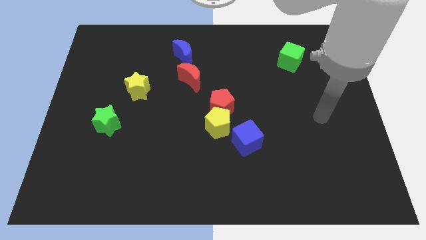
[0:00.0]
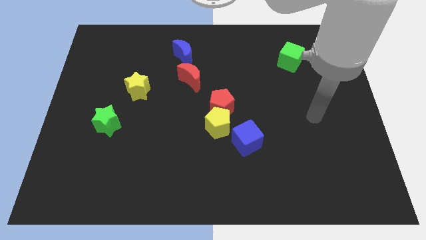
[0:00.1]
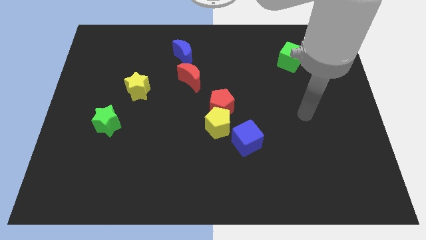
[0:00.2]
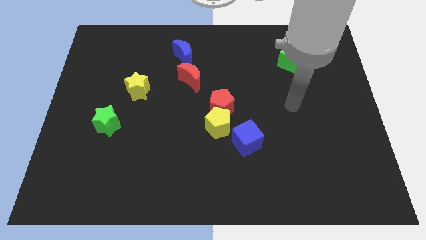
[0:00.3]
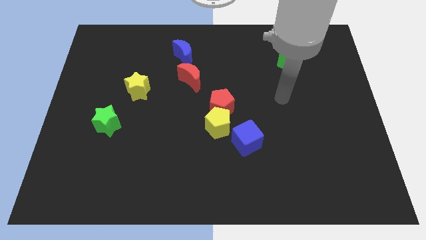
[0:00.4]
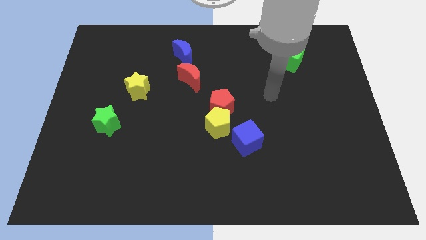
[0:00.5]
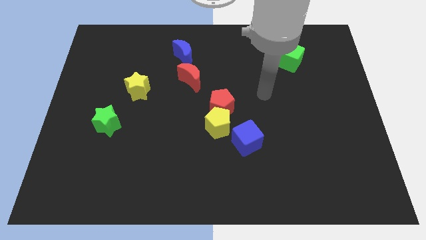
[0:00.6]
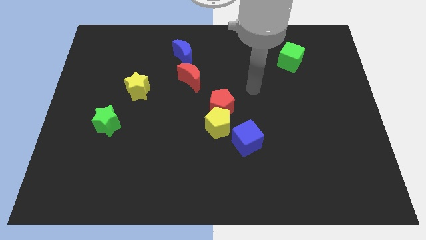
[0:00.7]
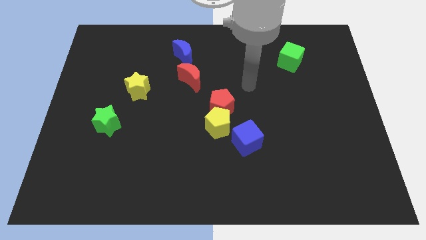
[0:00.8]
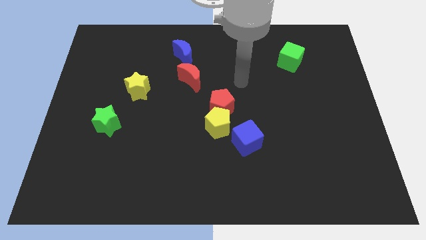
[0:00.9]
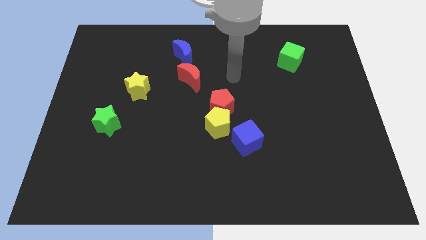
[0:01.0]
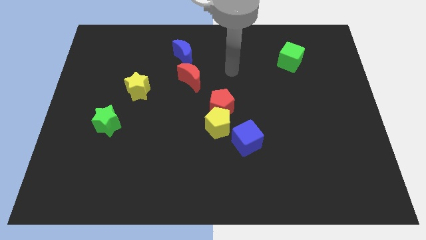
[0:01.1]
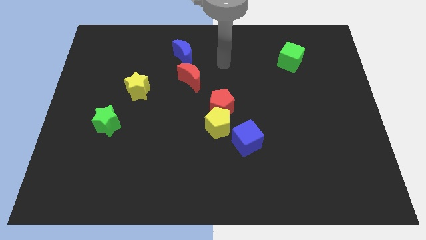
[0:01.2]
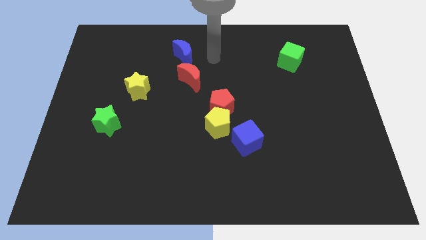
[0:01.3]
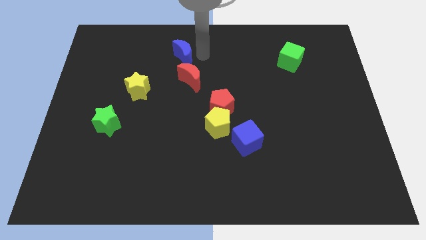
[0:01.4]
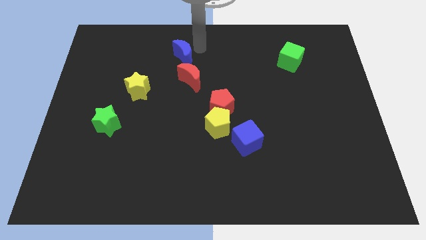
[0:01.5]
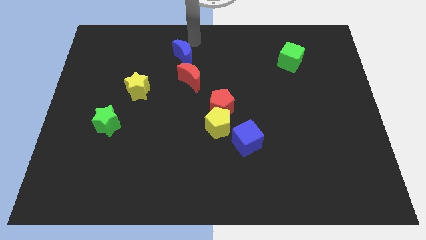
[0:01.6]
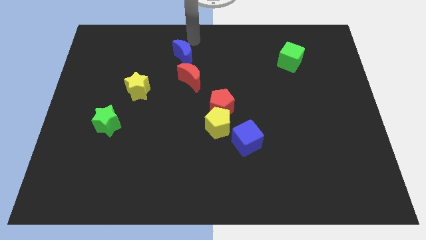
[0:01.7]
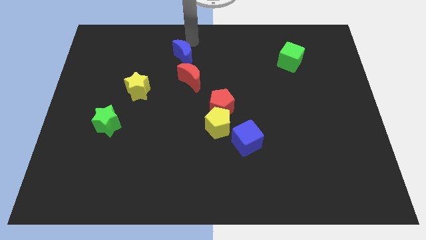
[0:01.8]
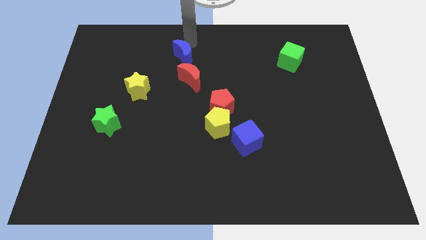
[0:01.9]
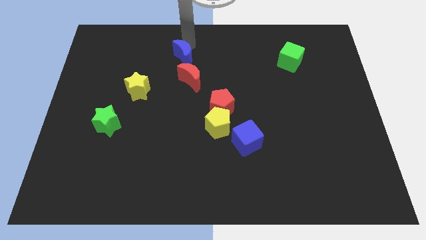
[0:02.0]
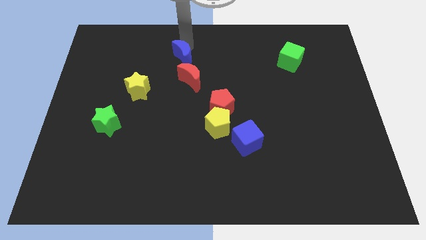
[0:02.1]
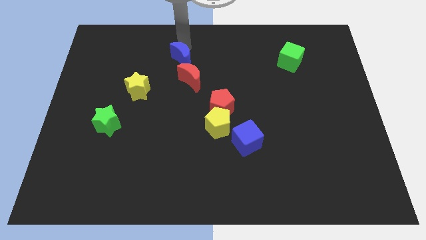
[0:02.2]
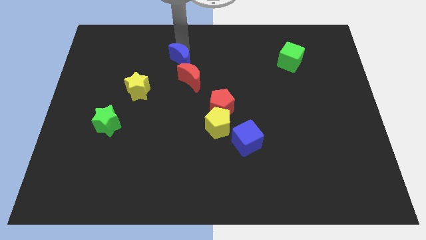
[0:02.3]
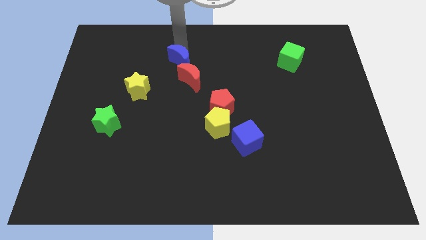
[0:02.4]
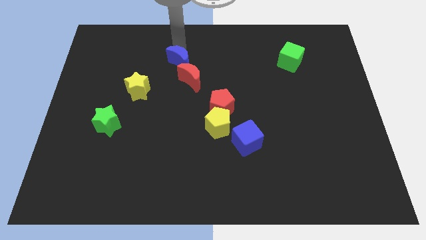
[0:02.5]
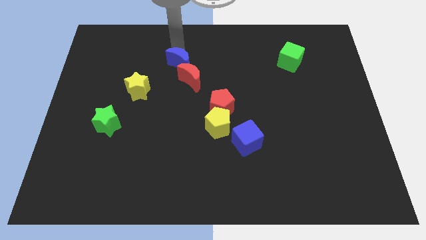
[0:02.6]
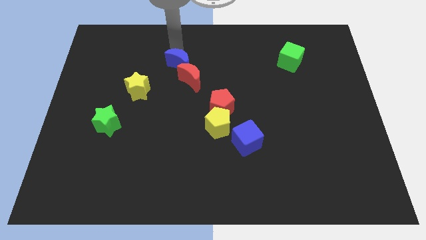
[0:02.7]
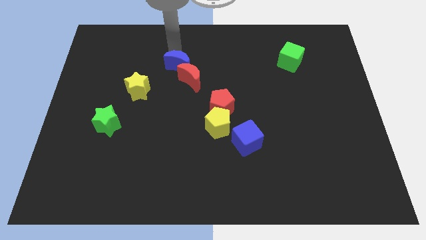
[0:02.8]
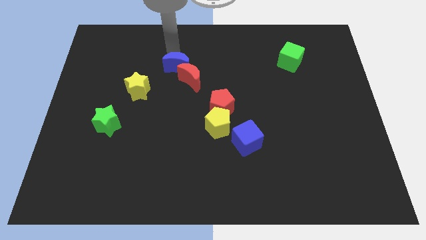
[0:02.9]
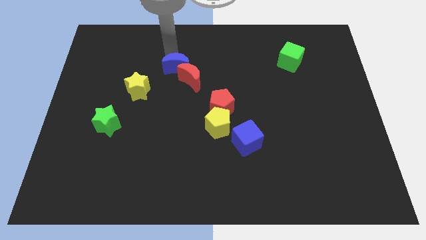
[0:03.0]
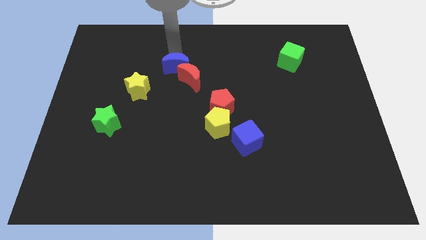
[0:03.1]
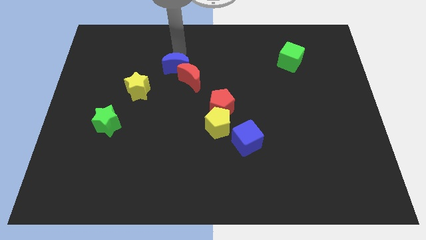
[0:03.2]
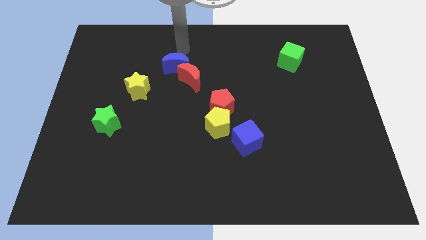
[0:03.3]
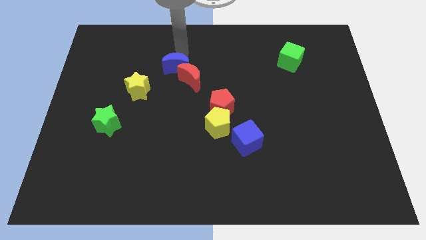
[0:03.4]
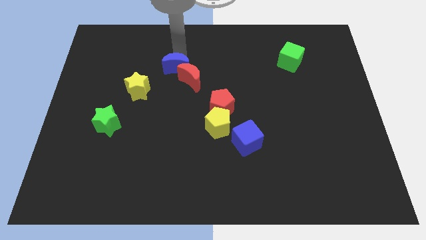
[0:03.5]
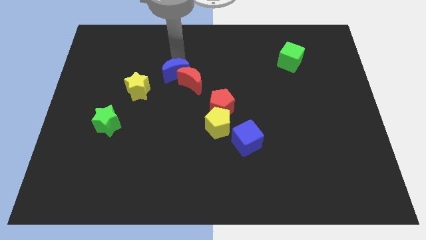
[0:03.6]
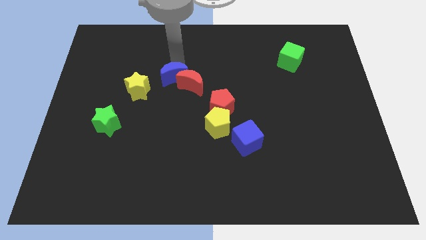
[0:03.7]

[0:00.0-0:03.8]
push the blue moon somewhat down

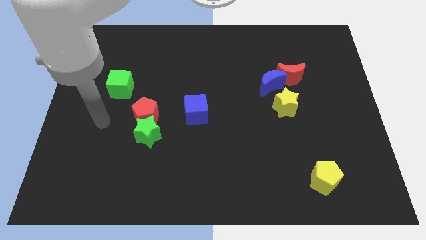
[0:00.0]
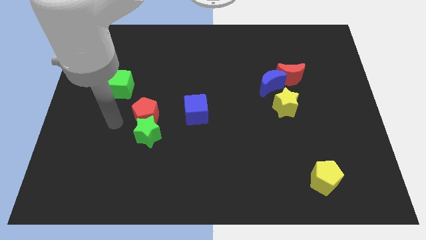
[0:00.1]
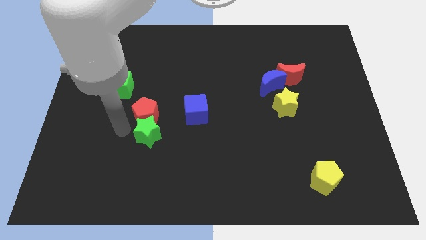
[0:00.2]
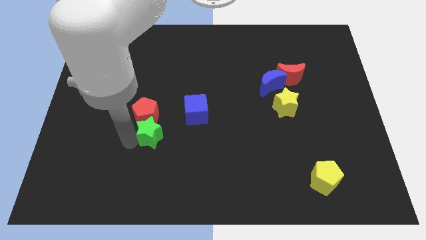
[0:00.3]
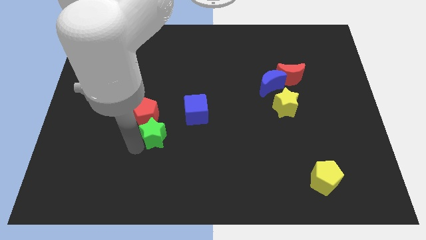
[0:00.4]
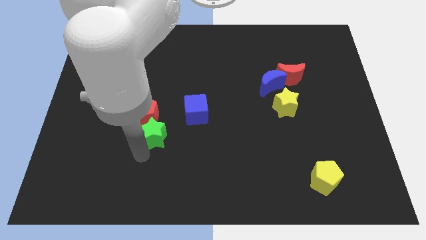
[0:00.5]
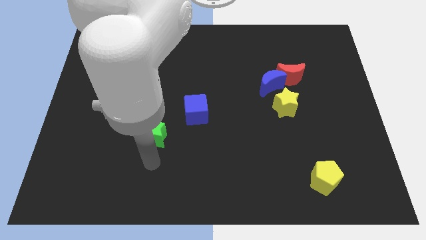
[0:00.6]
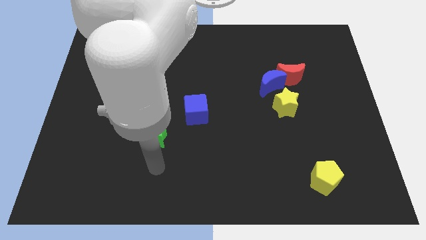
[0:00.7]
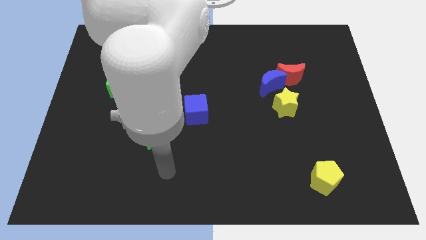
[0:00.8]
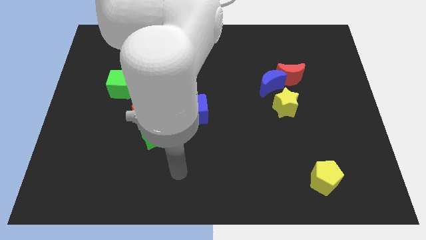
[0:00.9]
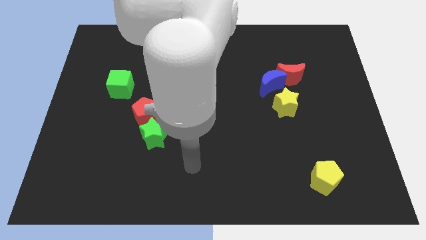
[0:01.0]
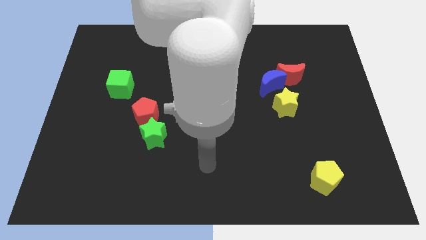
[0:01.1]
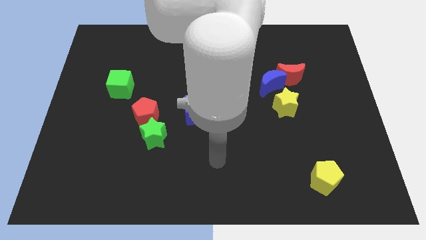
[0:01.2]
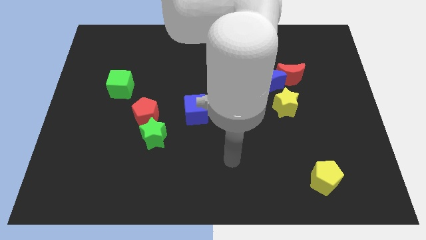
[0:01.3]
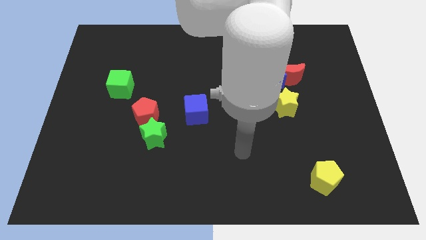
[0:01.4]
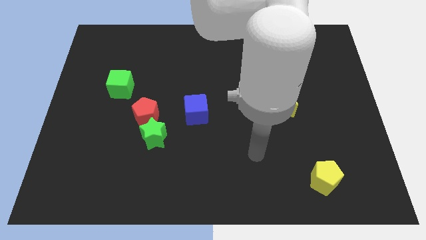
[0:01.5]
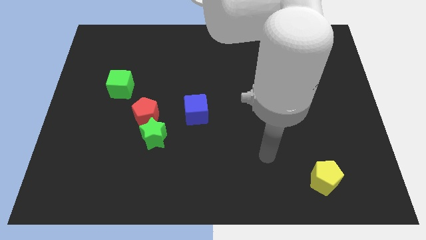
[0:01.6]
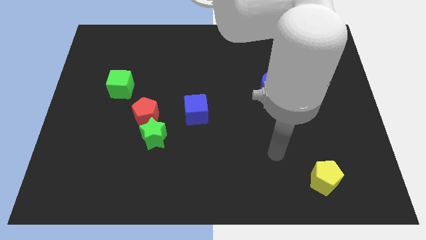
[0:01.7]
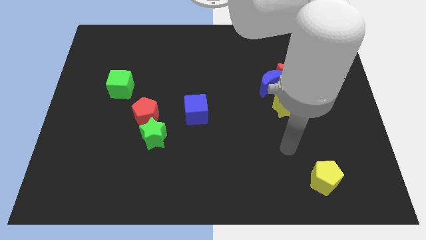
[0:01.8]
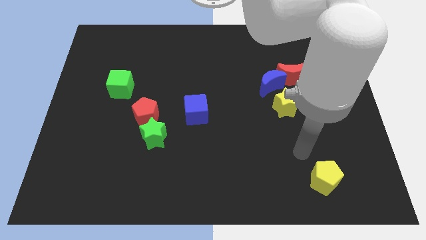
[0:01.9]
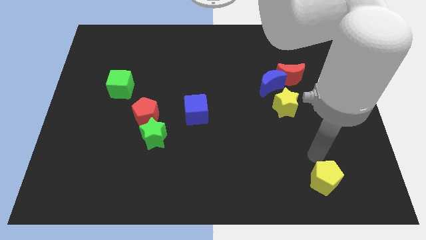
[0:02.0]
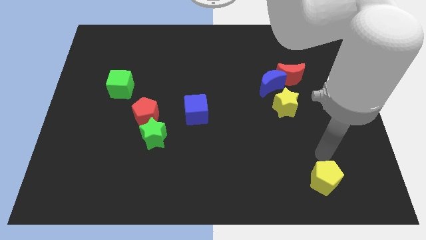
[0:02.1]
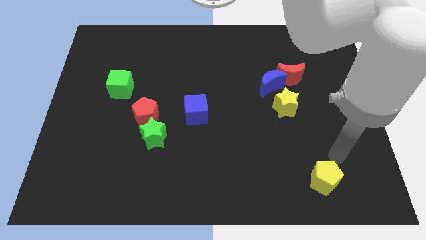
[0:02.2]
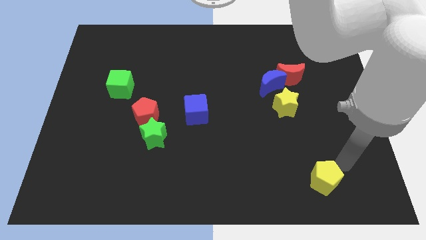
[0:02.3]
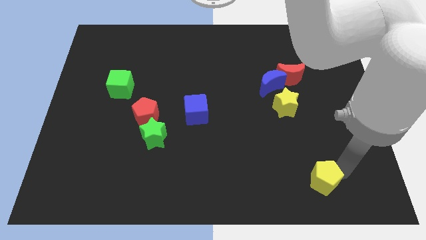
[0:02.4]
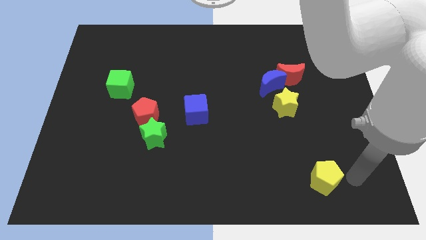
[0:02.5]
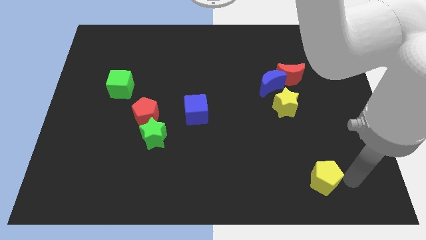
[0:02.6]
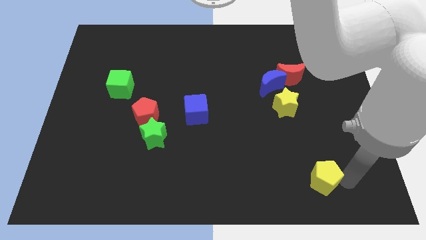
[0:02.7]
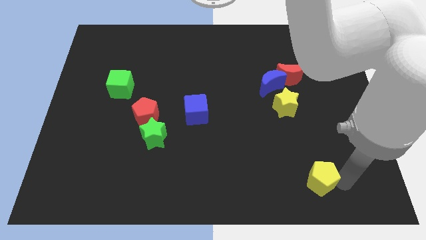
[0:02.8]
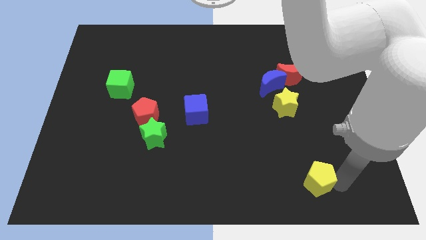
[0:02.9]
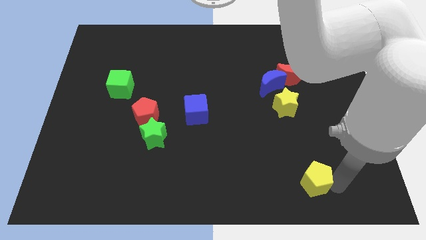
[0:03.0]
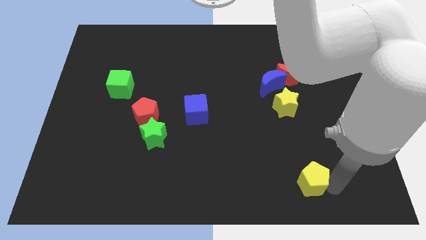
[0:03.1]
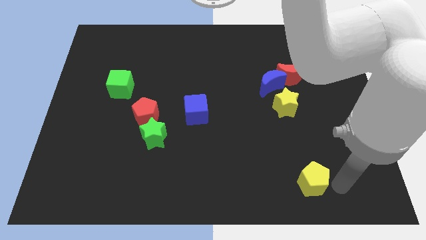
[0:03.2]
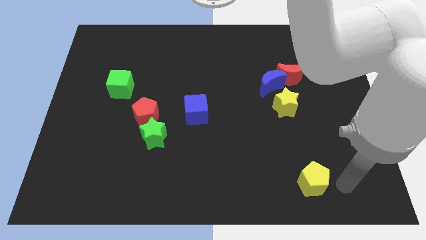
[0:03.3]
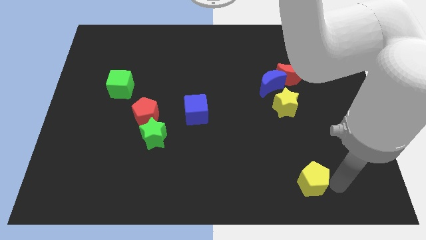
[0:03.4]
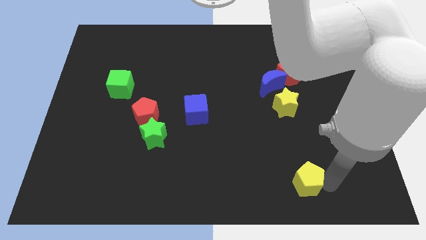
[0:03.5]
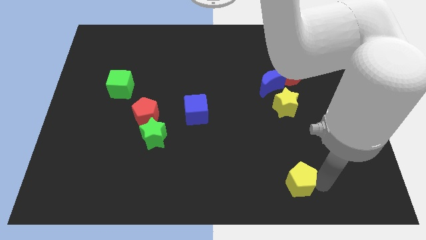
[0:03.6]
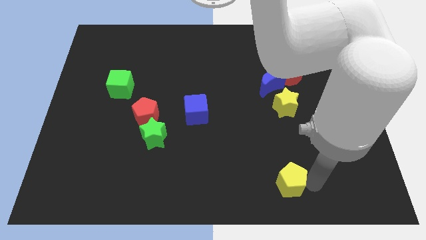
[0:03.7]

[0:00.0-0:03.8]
push the yellow pentagon to the left a bit

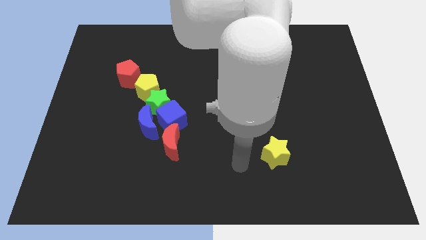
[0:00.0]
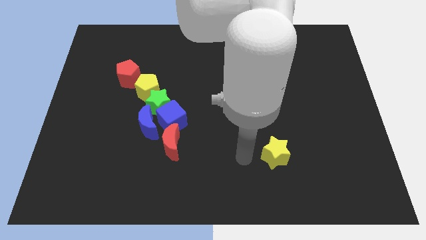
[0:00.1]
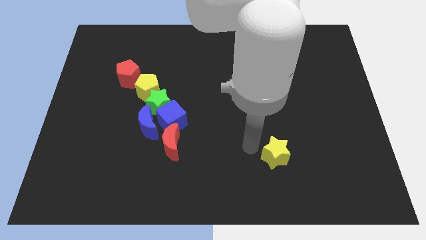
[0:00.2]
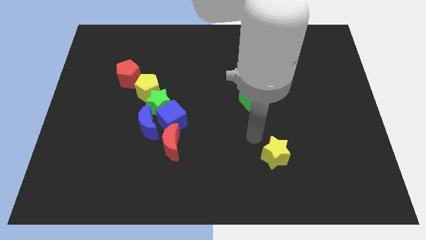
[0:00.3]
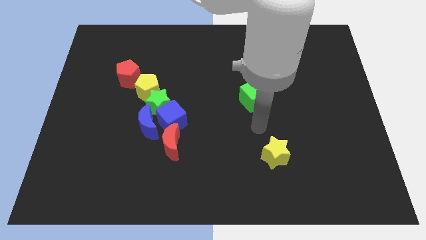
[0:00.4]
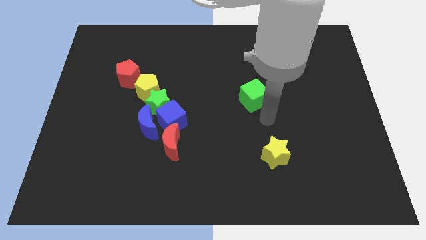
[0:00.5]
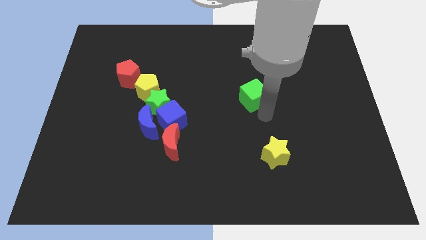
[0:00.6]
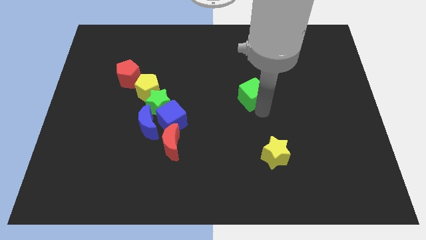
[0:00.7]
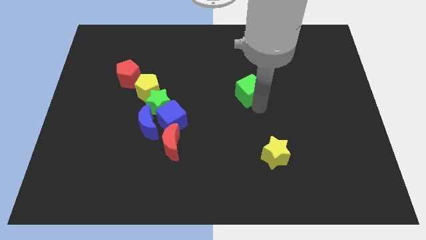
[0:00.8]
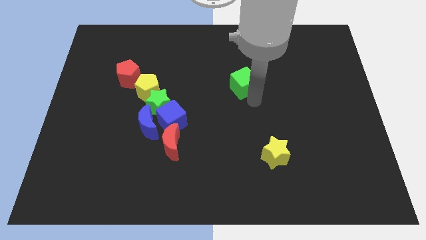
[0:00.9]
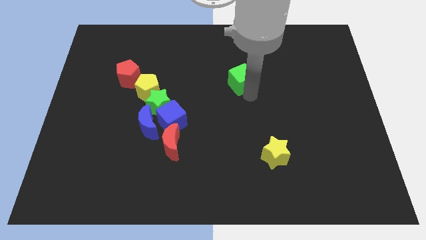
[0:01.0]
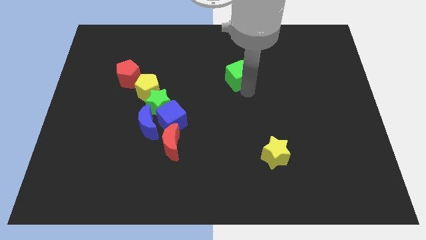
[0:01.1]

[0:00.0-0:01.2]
slightly move the green cube diagonally upwards and left
